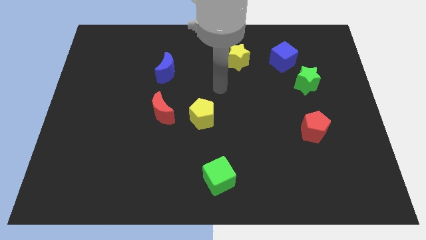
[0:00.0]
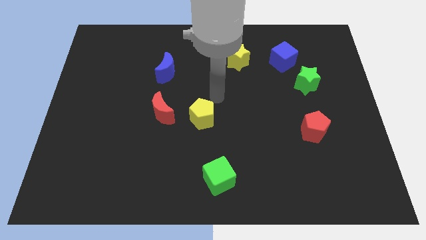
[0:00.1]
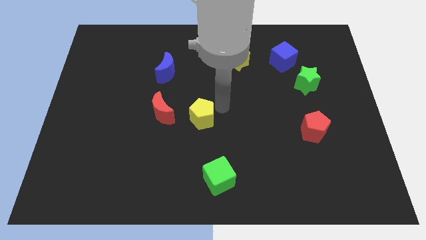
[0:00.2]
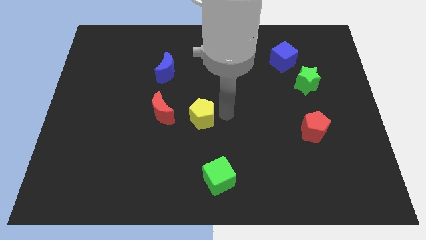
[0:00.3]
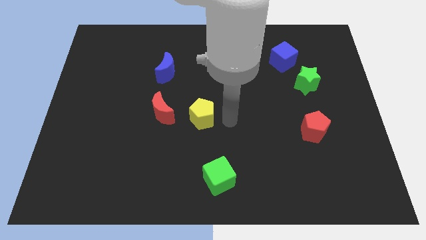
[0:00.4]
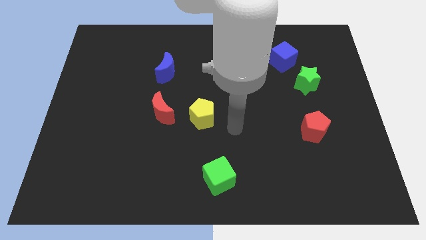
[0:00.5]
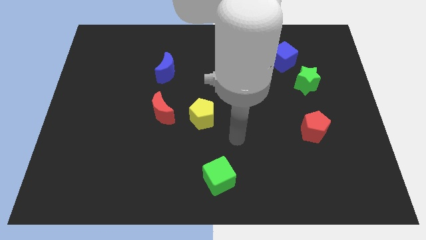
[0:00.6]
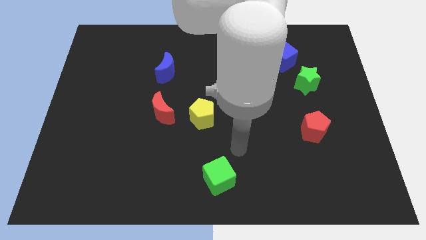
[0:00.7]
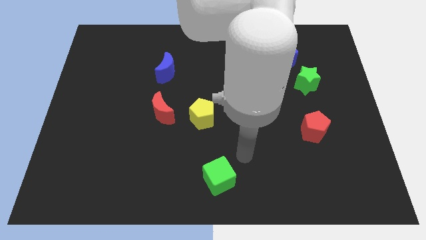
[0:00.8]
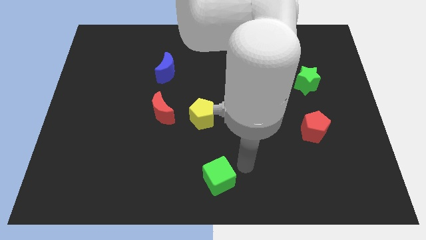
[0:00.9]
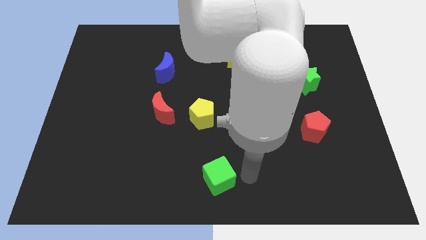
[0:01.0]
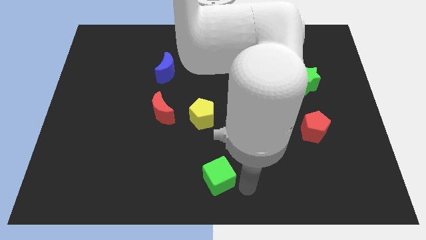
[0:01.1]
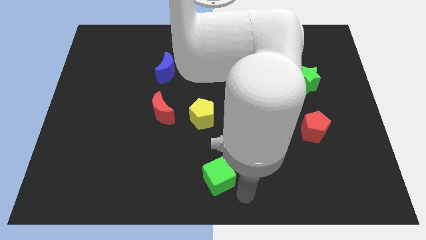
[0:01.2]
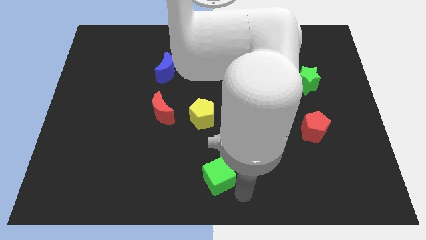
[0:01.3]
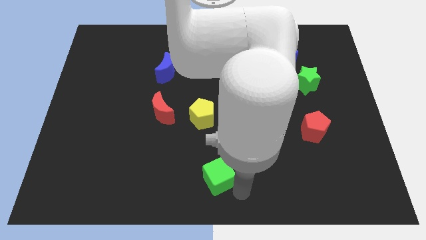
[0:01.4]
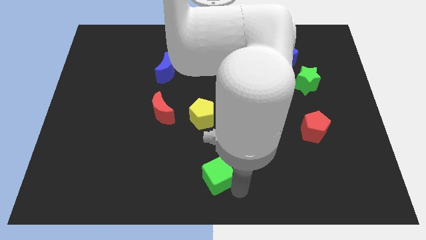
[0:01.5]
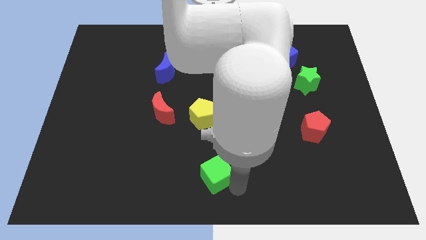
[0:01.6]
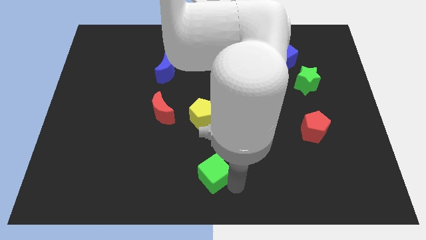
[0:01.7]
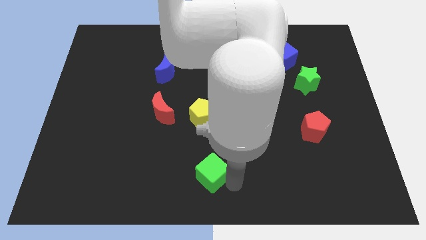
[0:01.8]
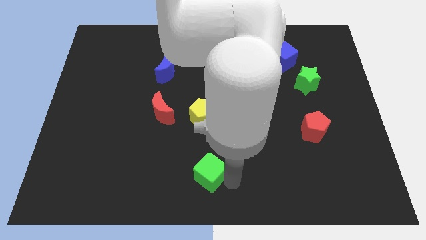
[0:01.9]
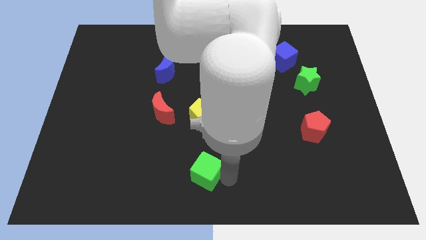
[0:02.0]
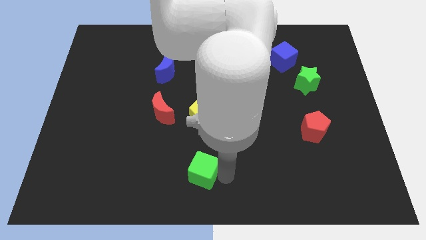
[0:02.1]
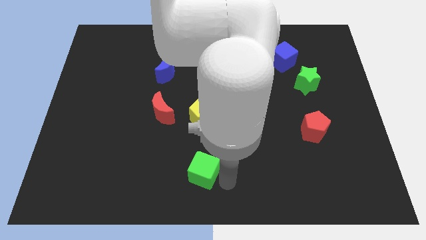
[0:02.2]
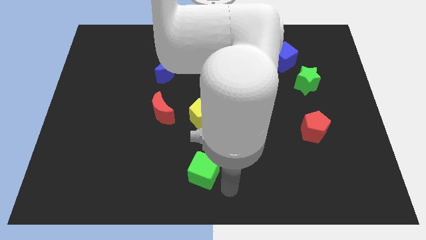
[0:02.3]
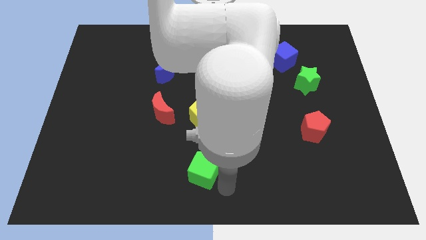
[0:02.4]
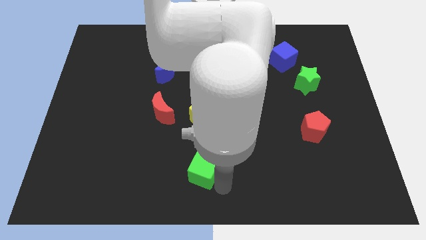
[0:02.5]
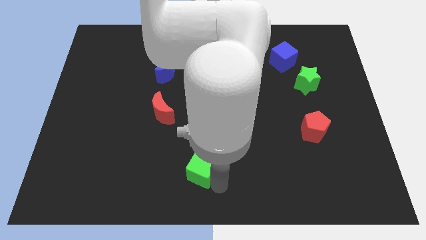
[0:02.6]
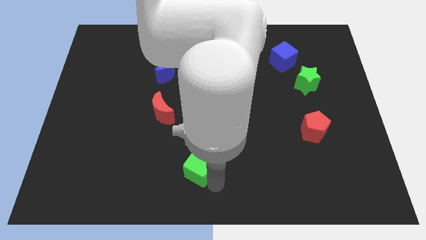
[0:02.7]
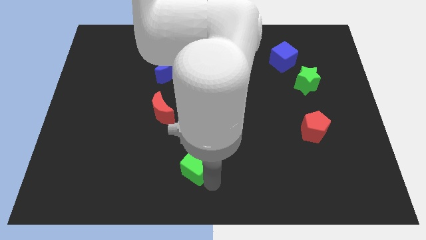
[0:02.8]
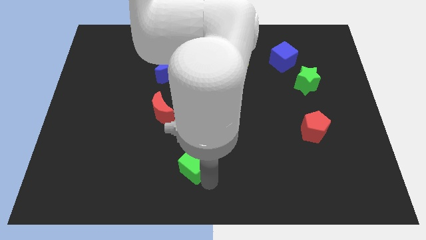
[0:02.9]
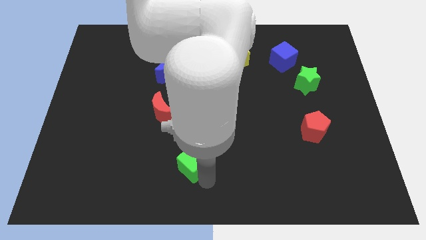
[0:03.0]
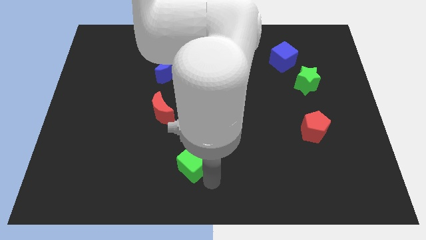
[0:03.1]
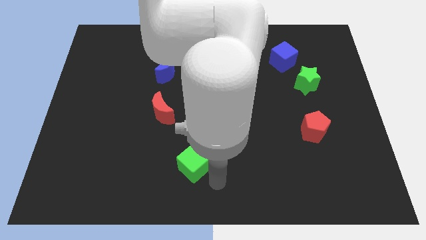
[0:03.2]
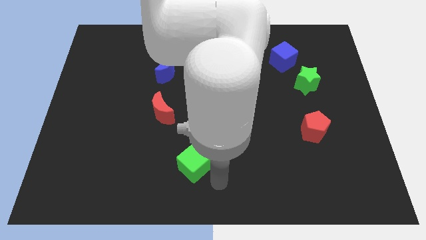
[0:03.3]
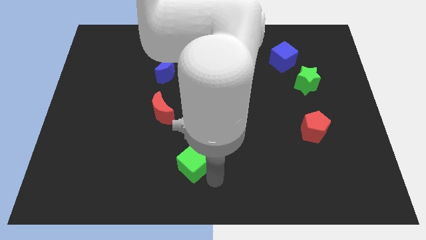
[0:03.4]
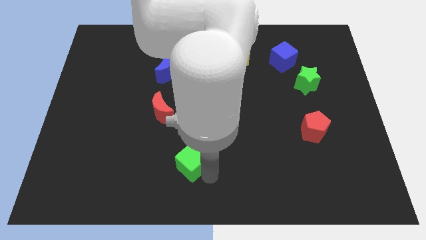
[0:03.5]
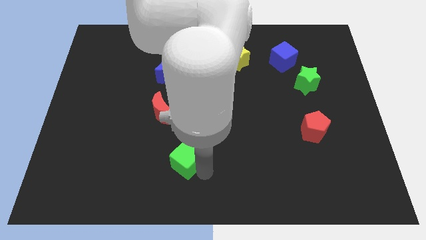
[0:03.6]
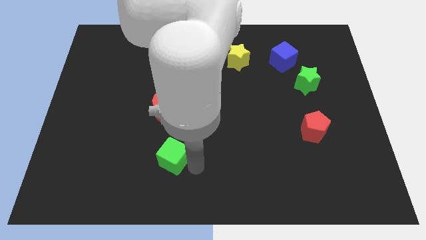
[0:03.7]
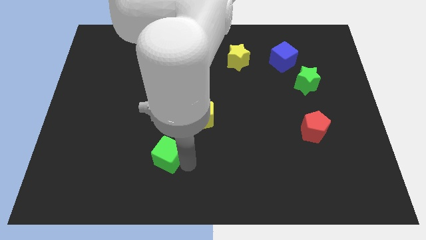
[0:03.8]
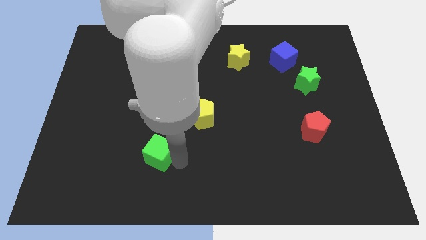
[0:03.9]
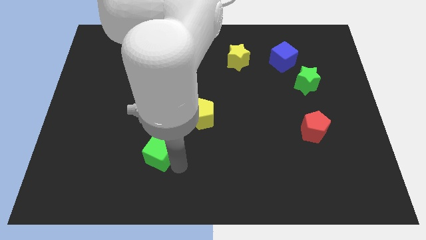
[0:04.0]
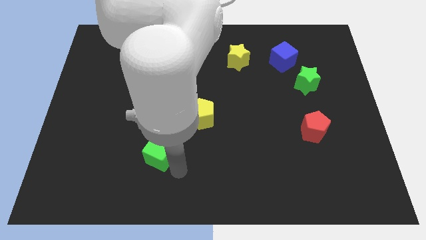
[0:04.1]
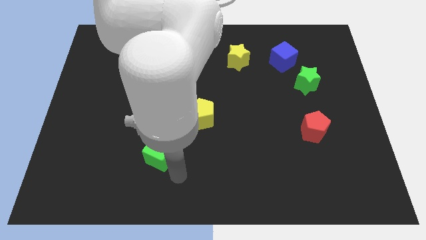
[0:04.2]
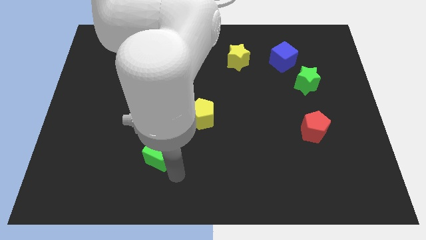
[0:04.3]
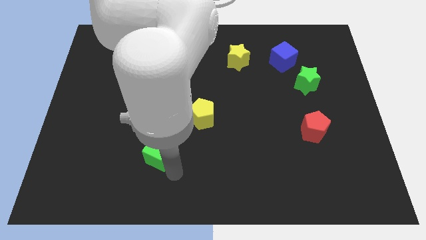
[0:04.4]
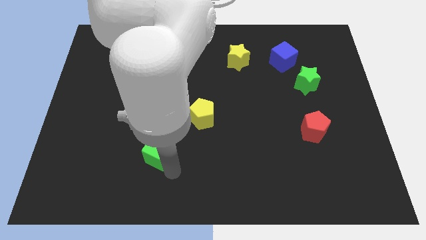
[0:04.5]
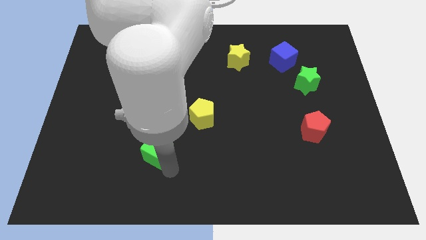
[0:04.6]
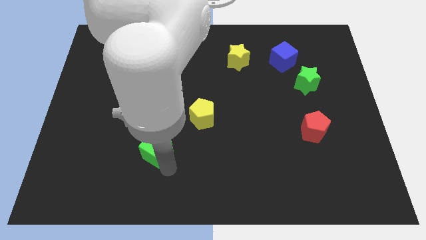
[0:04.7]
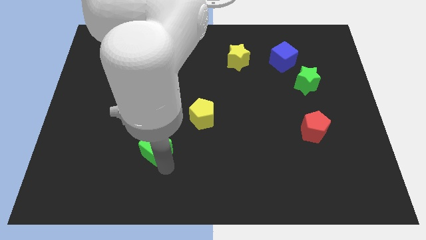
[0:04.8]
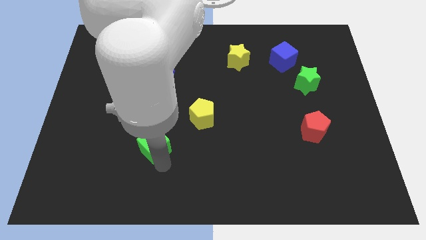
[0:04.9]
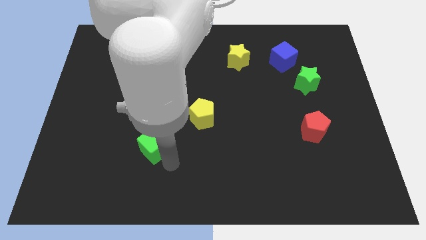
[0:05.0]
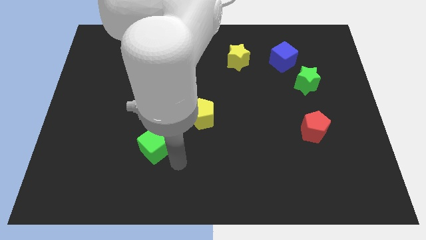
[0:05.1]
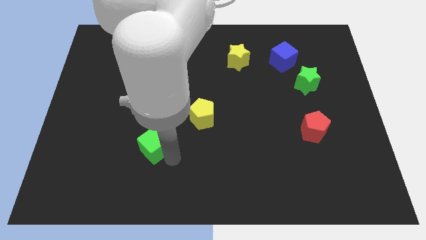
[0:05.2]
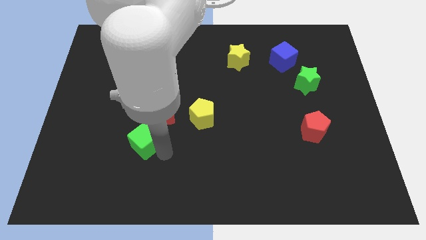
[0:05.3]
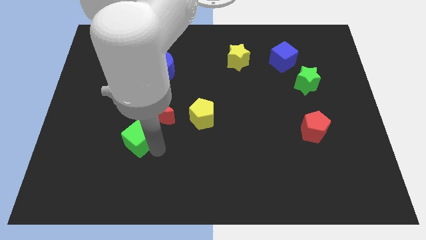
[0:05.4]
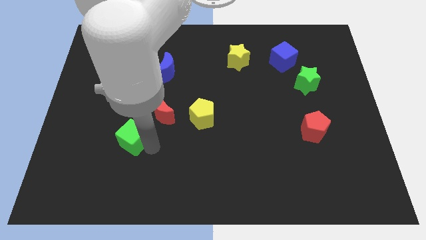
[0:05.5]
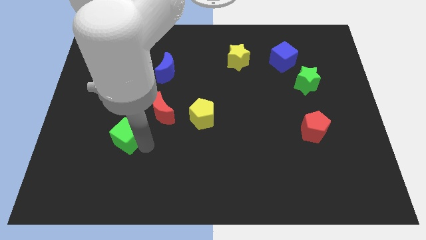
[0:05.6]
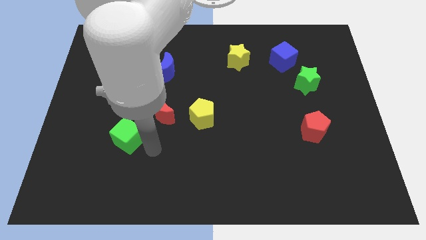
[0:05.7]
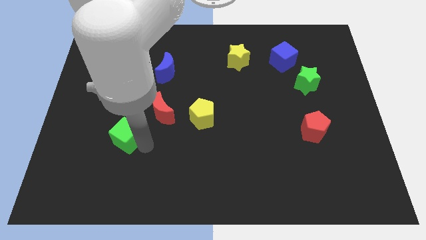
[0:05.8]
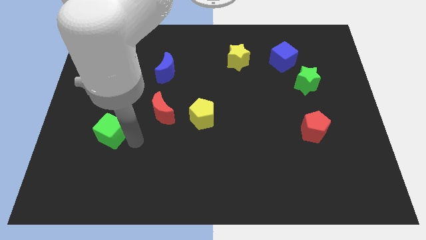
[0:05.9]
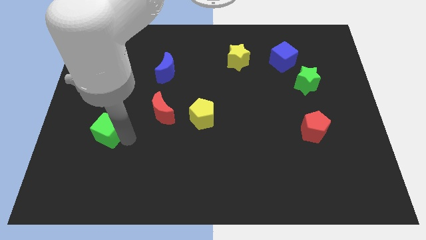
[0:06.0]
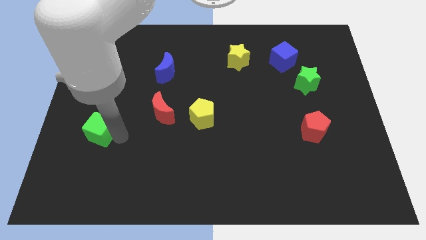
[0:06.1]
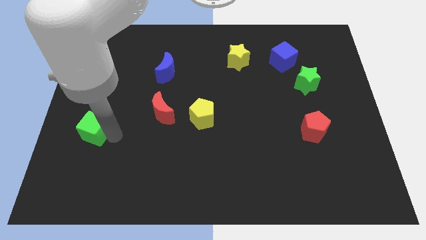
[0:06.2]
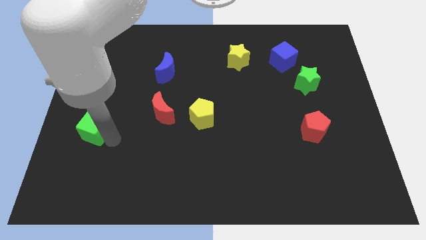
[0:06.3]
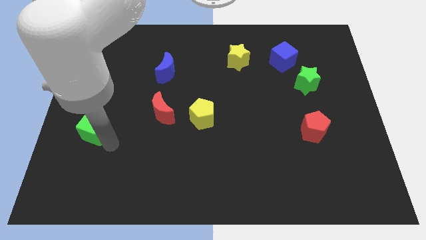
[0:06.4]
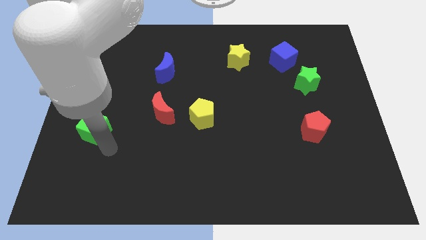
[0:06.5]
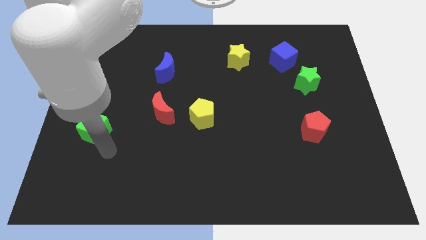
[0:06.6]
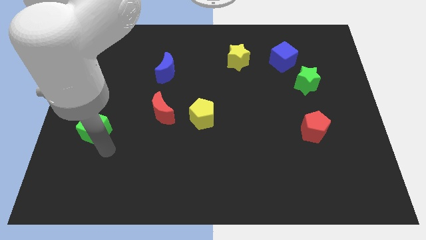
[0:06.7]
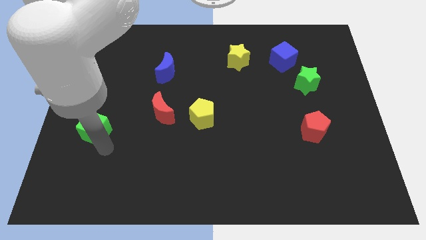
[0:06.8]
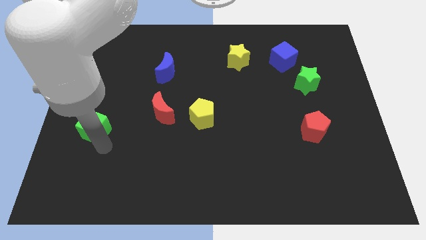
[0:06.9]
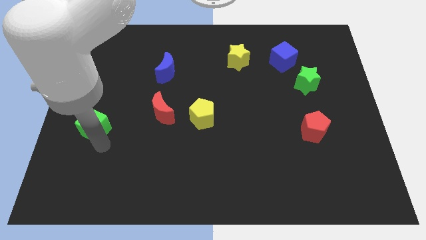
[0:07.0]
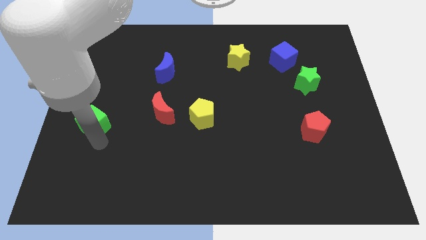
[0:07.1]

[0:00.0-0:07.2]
push the green cube to the center left
